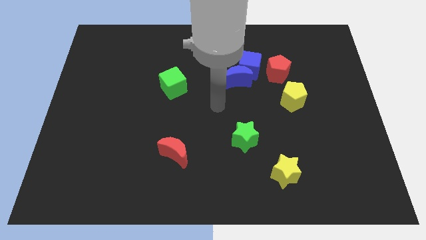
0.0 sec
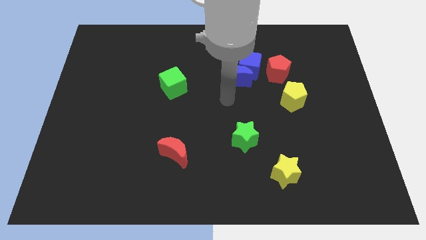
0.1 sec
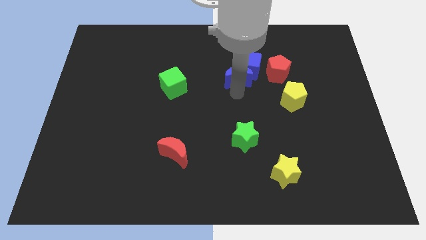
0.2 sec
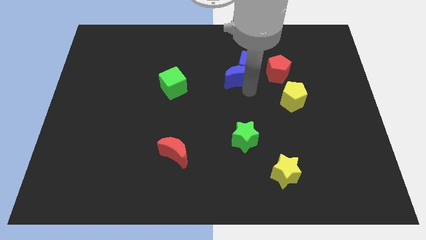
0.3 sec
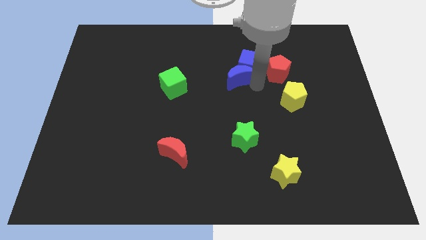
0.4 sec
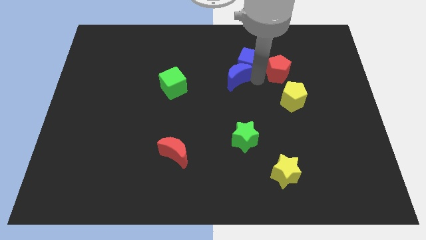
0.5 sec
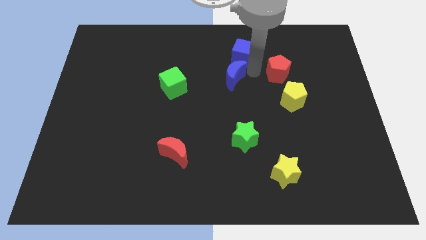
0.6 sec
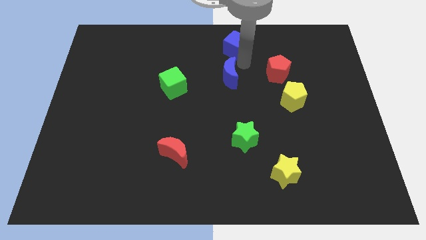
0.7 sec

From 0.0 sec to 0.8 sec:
pull the blue moon apart from the blue cube

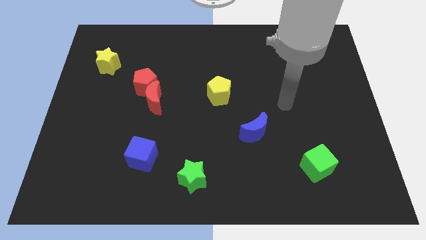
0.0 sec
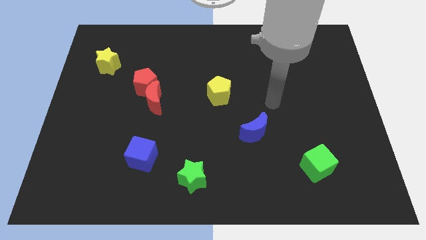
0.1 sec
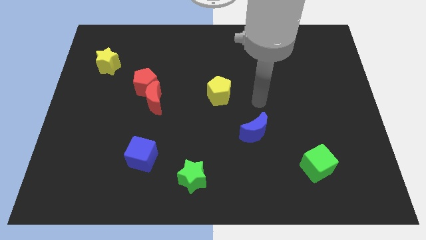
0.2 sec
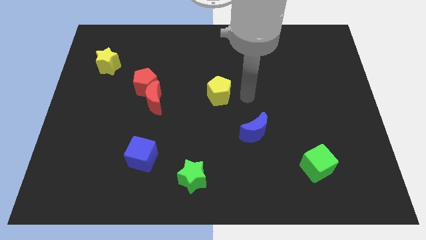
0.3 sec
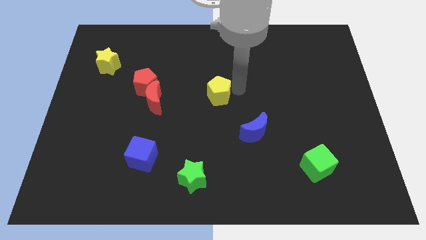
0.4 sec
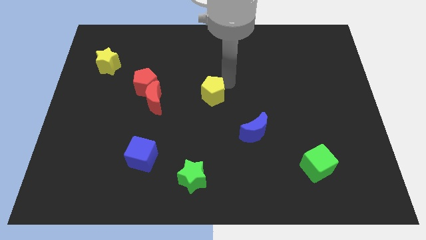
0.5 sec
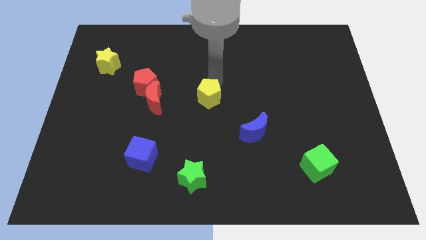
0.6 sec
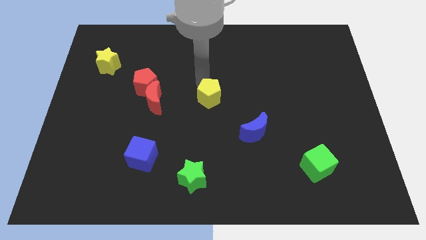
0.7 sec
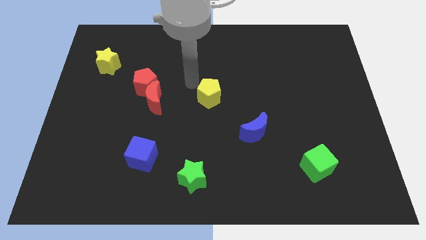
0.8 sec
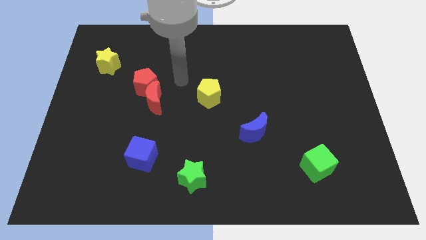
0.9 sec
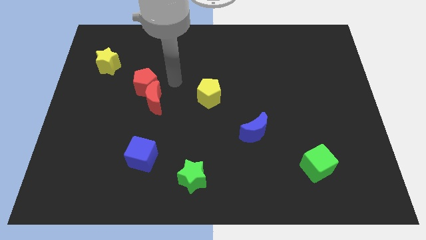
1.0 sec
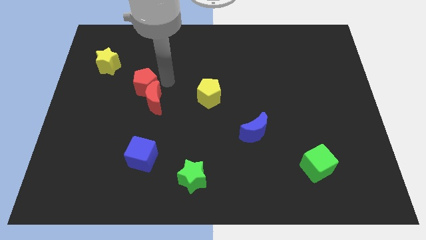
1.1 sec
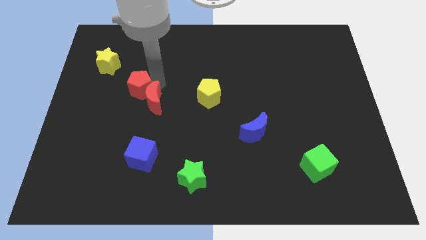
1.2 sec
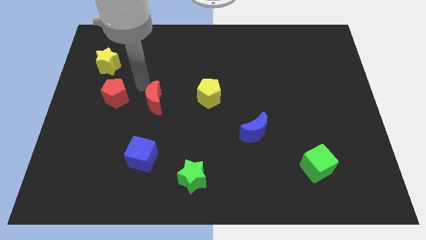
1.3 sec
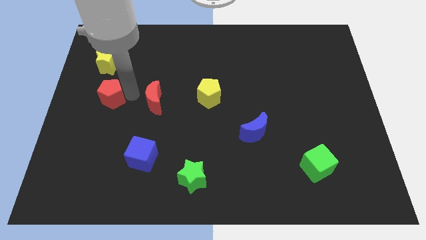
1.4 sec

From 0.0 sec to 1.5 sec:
move the red moon away from the red pentagon

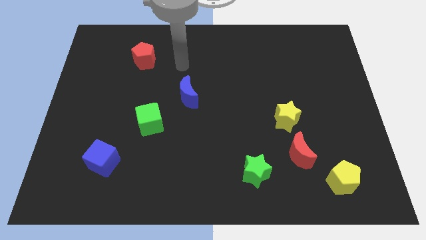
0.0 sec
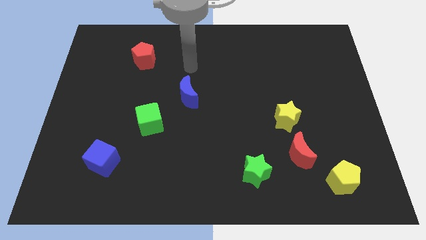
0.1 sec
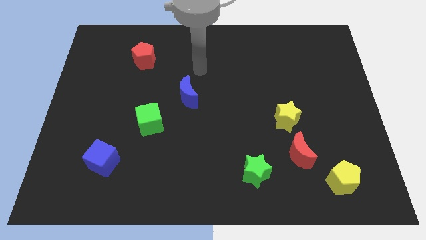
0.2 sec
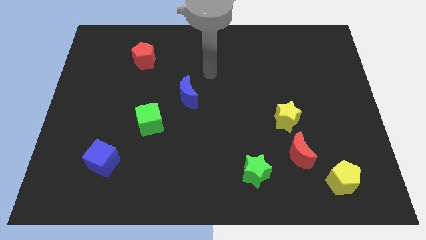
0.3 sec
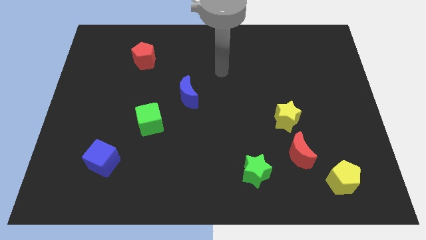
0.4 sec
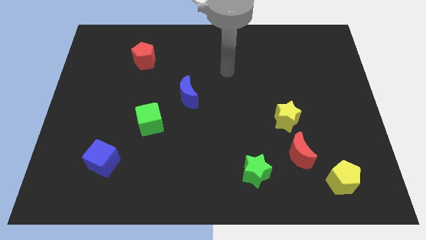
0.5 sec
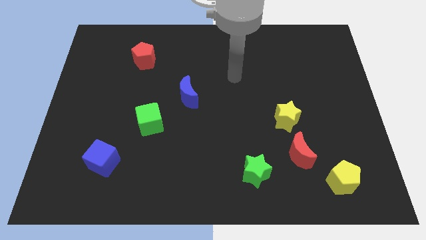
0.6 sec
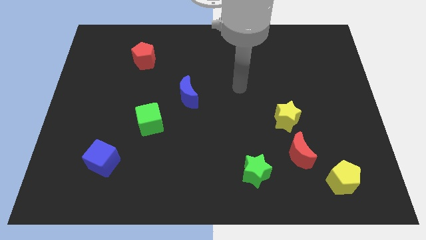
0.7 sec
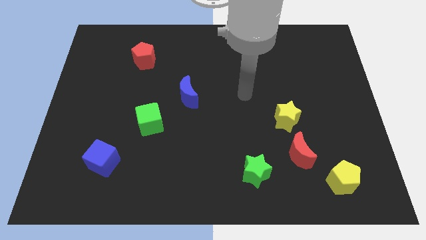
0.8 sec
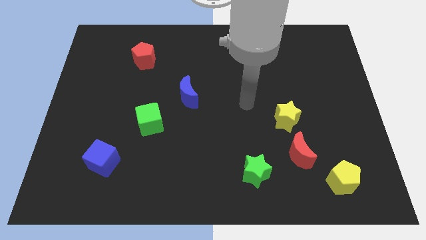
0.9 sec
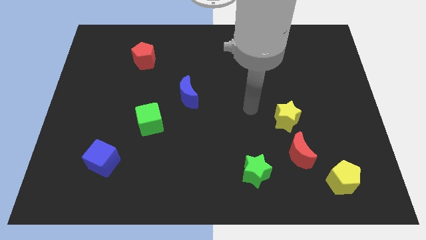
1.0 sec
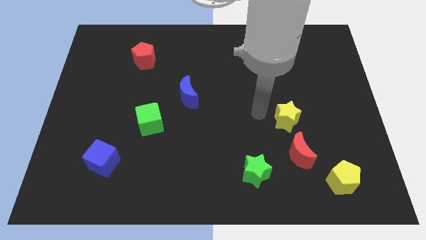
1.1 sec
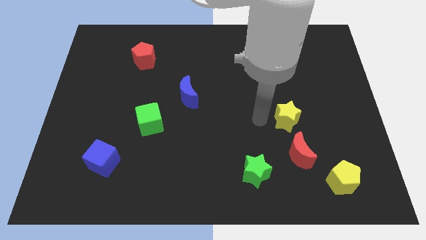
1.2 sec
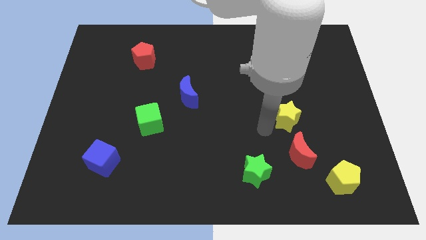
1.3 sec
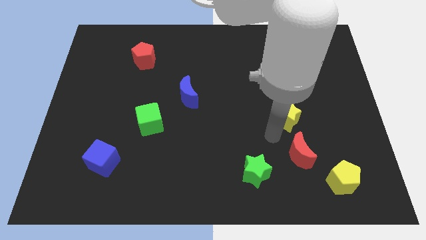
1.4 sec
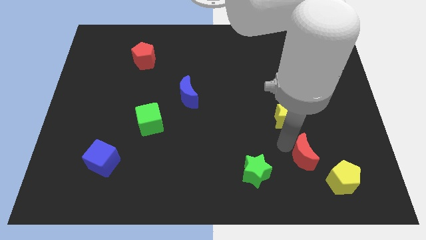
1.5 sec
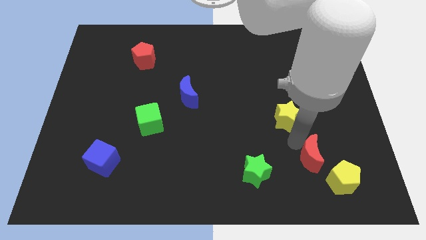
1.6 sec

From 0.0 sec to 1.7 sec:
move the yellow star away from the red moon

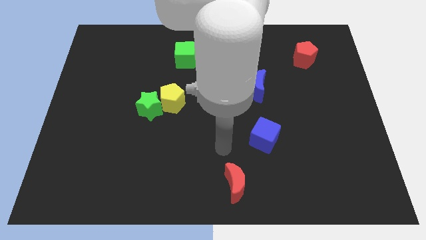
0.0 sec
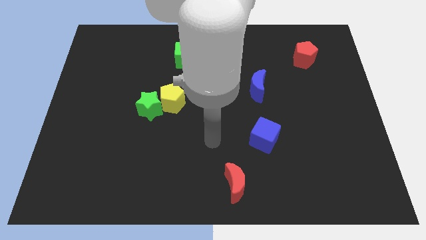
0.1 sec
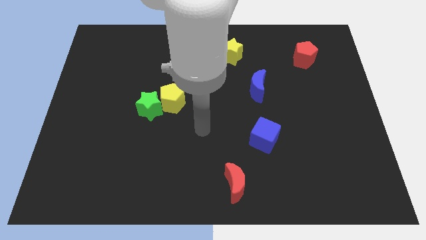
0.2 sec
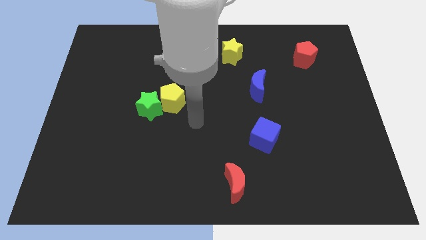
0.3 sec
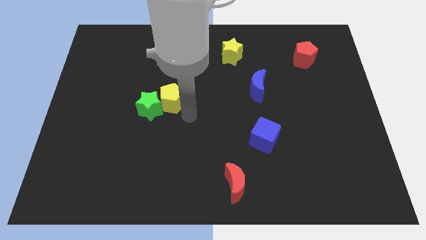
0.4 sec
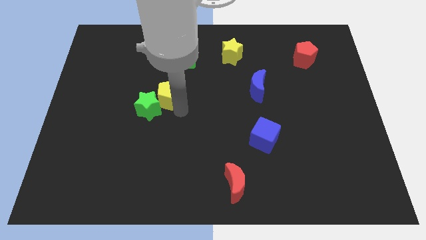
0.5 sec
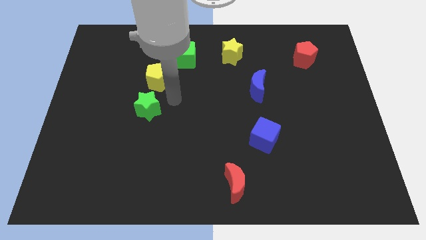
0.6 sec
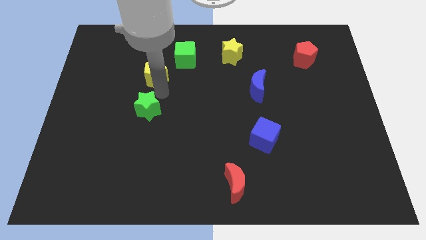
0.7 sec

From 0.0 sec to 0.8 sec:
pull the green star apart from the yellow pentagon

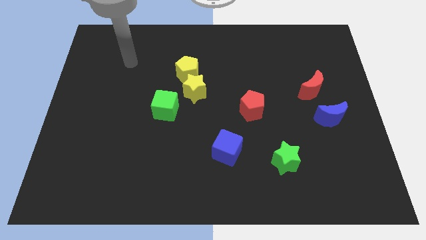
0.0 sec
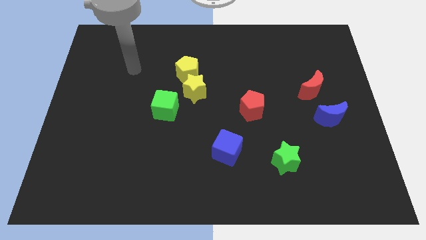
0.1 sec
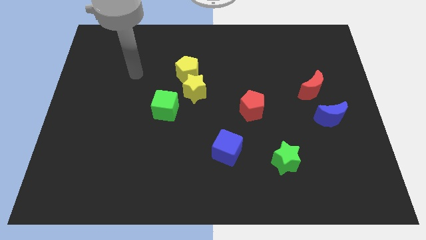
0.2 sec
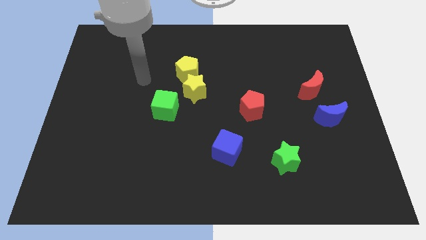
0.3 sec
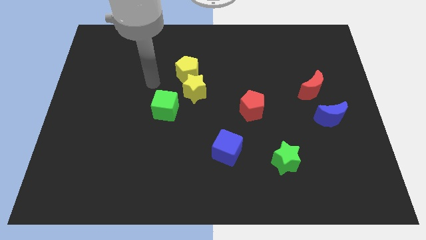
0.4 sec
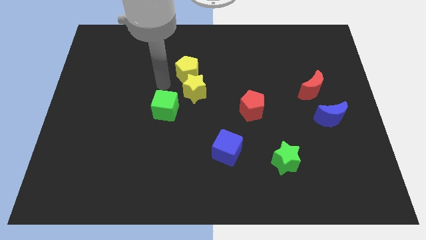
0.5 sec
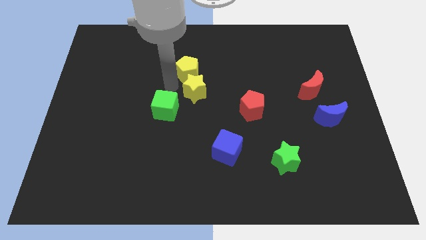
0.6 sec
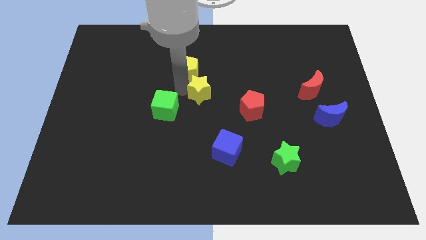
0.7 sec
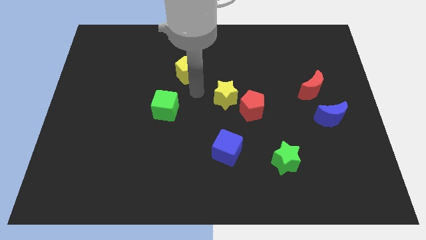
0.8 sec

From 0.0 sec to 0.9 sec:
pull the yellow pentagon apart from the yellow star

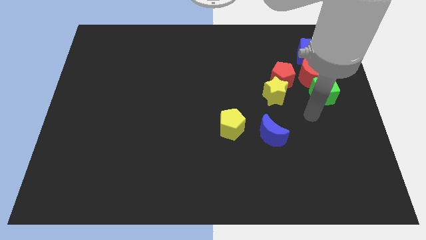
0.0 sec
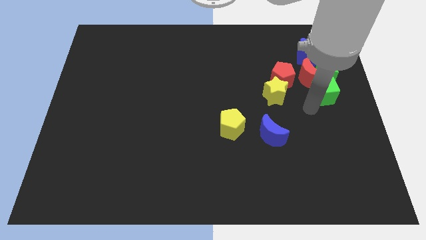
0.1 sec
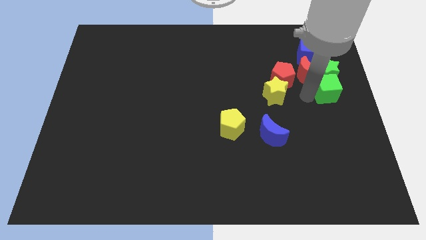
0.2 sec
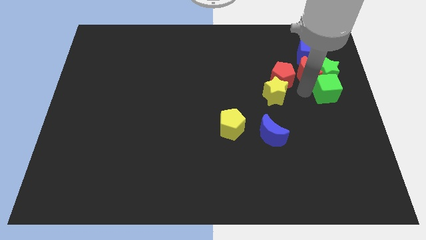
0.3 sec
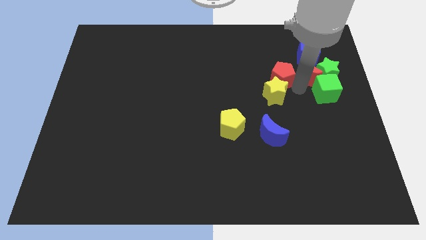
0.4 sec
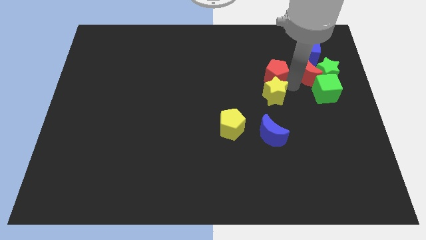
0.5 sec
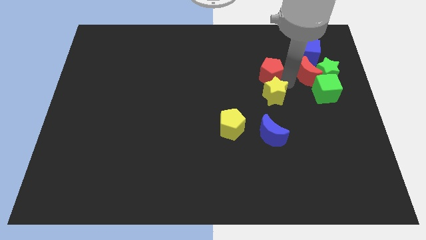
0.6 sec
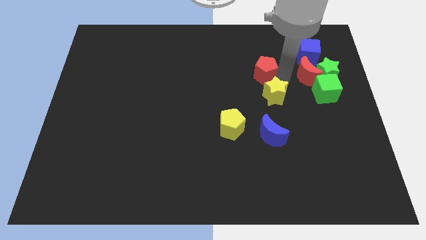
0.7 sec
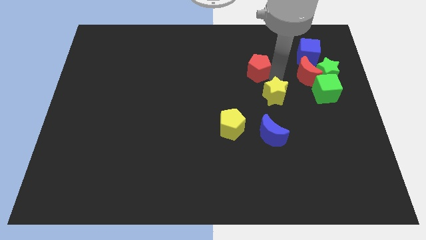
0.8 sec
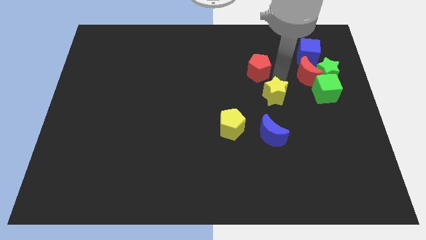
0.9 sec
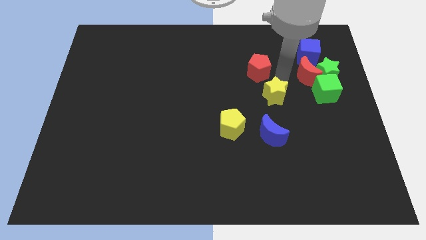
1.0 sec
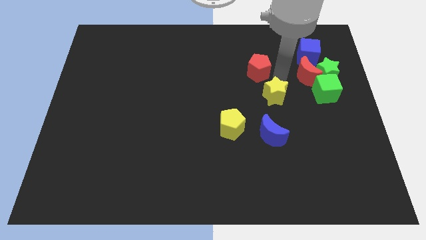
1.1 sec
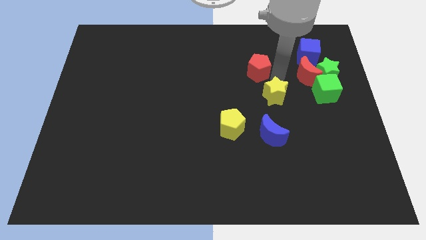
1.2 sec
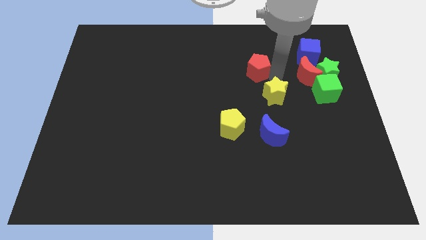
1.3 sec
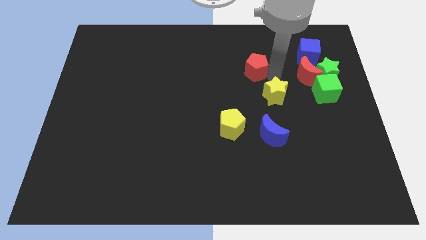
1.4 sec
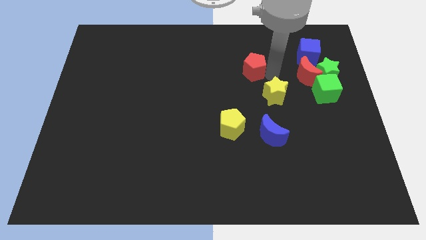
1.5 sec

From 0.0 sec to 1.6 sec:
pull the red pentagon apart from the yellow star and red moon

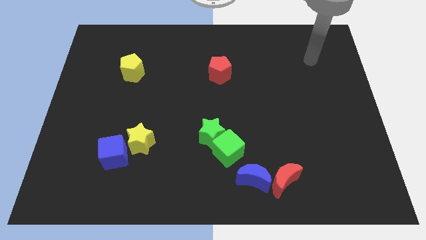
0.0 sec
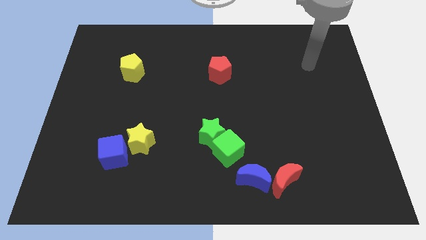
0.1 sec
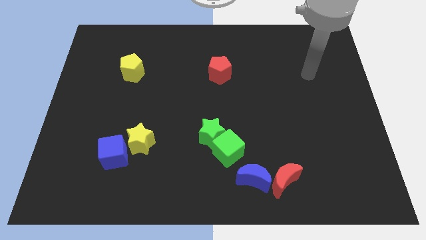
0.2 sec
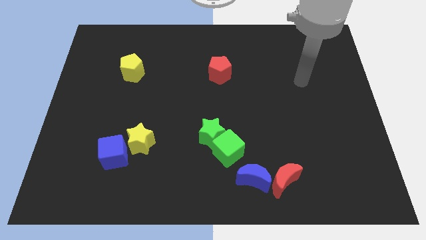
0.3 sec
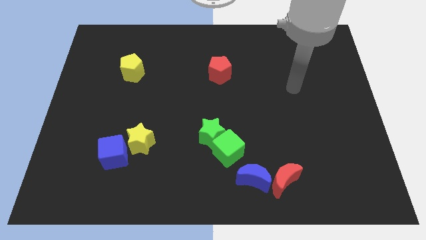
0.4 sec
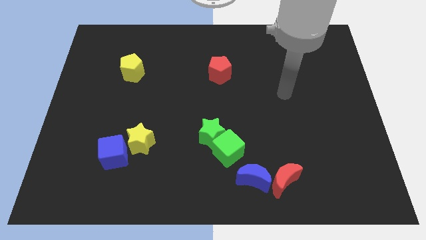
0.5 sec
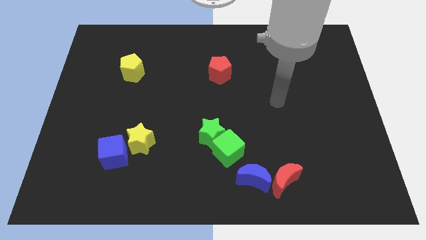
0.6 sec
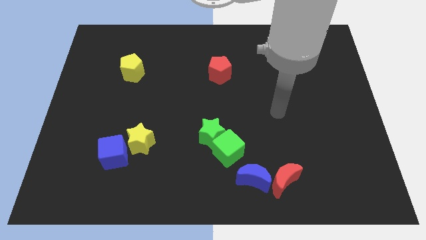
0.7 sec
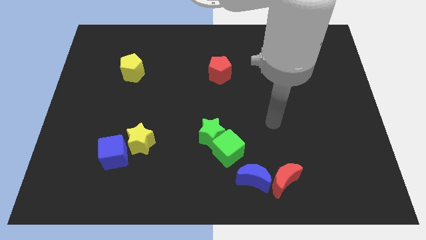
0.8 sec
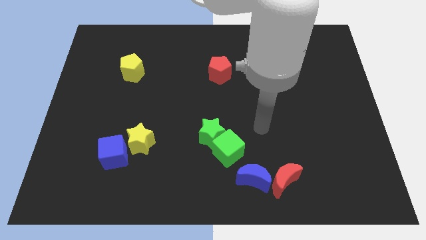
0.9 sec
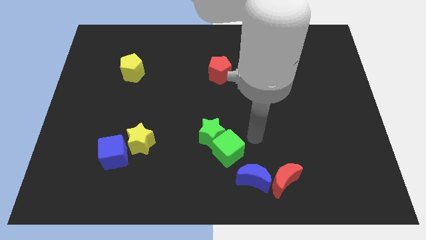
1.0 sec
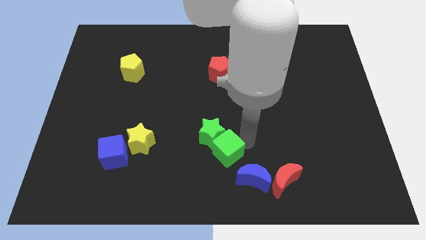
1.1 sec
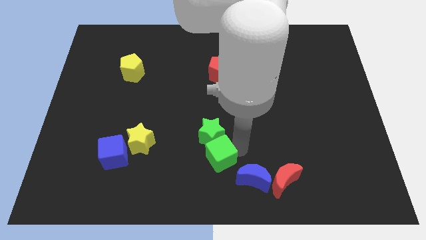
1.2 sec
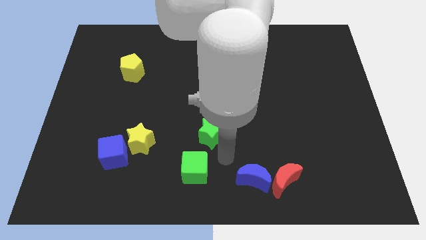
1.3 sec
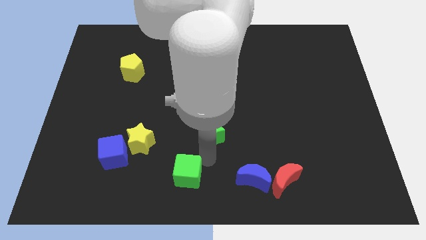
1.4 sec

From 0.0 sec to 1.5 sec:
pull the green star apart from the green cube

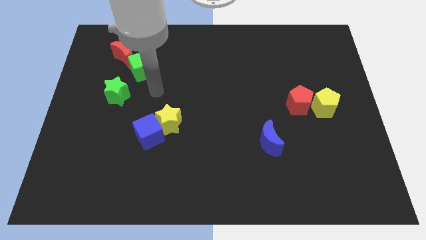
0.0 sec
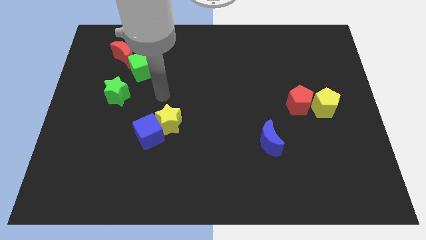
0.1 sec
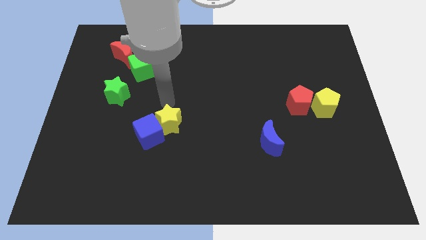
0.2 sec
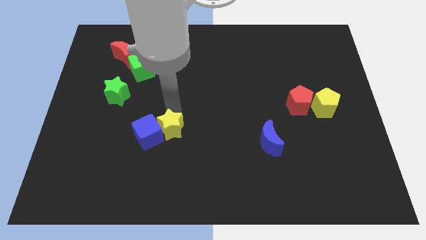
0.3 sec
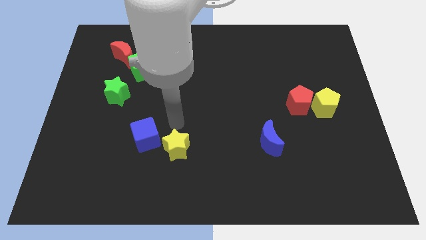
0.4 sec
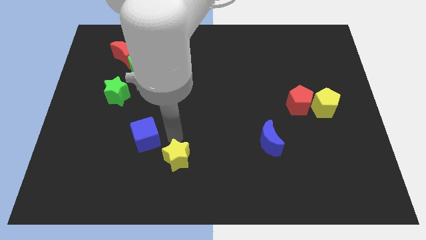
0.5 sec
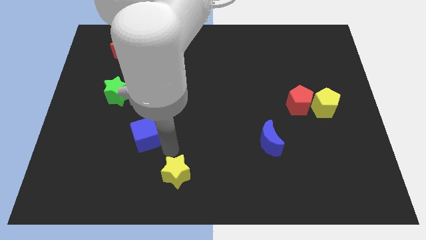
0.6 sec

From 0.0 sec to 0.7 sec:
move the blue cube away from the yellow star

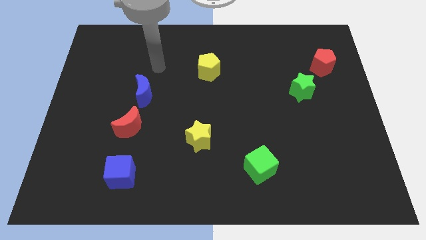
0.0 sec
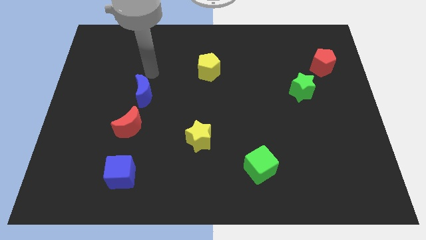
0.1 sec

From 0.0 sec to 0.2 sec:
move the red moon away from the blue moon
